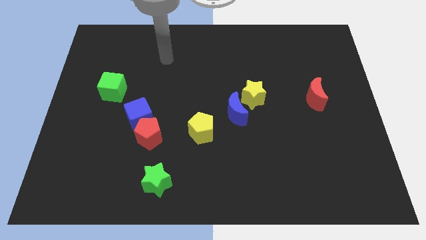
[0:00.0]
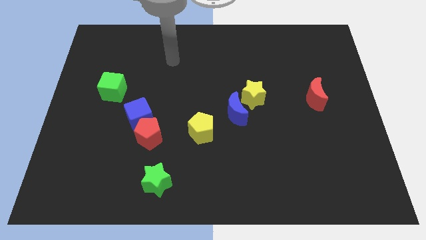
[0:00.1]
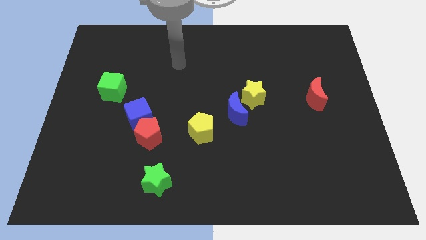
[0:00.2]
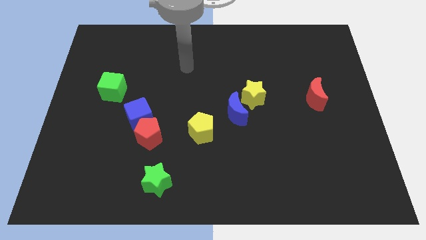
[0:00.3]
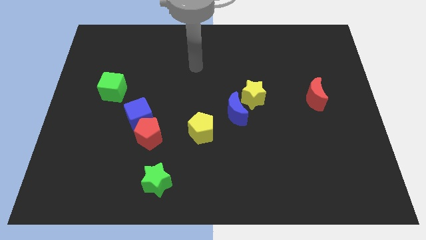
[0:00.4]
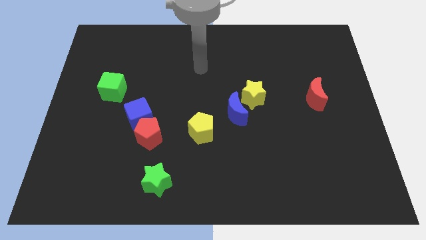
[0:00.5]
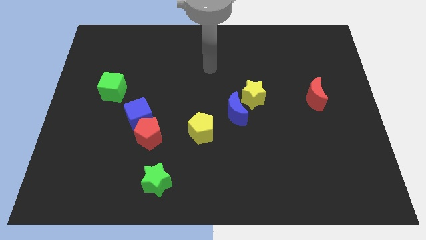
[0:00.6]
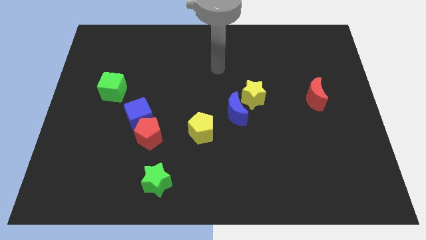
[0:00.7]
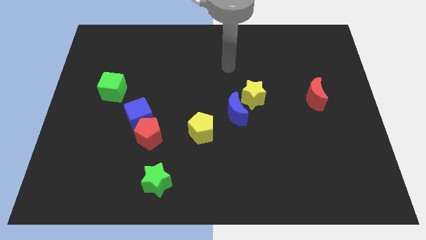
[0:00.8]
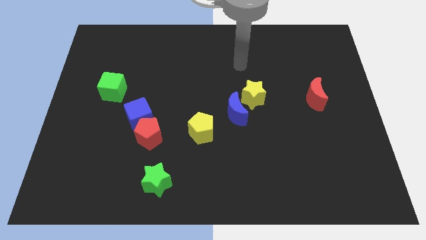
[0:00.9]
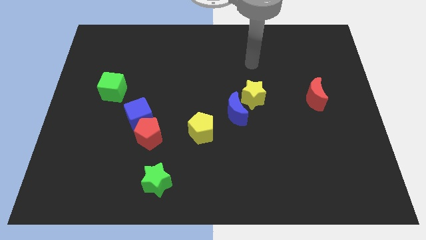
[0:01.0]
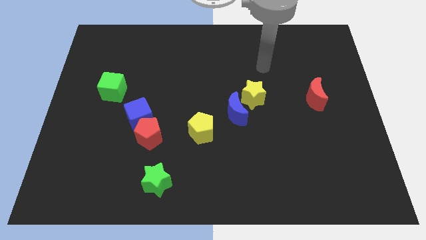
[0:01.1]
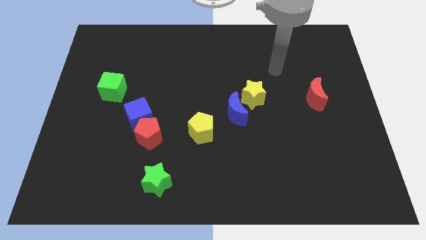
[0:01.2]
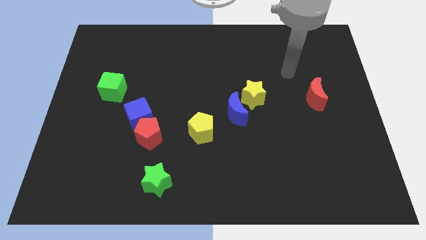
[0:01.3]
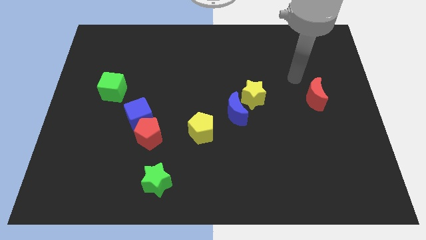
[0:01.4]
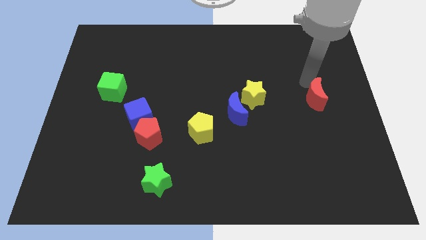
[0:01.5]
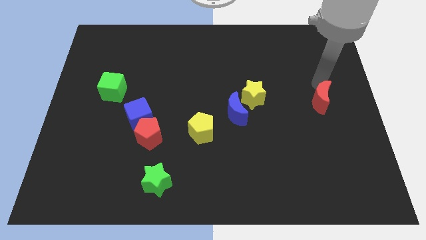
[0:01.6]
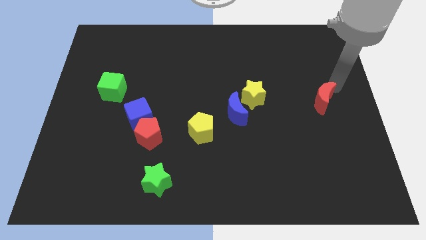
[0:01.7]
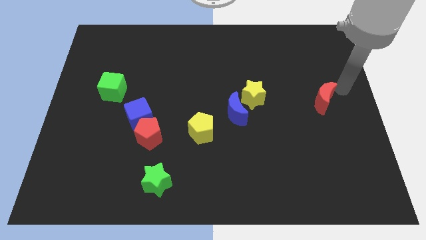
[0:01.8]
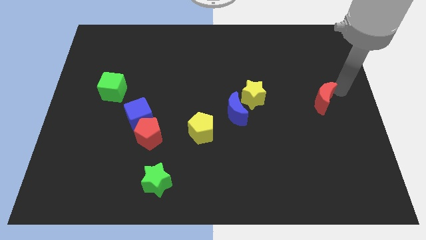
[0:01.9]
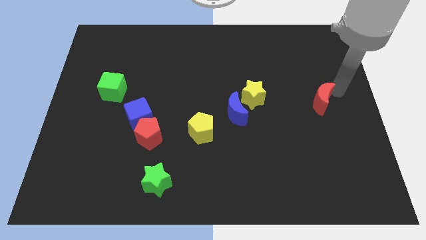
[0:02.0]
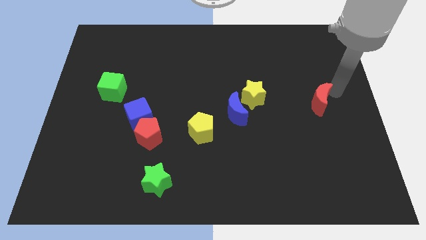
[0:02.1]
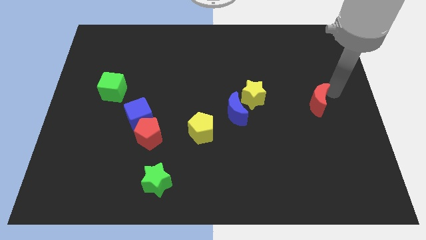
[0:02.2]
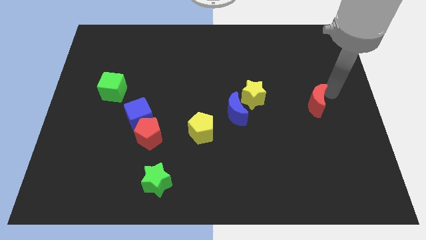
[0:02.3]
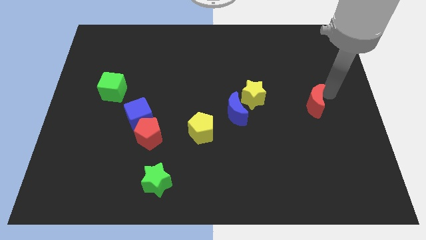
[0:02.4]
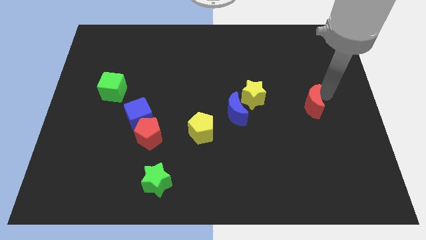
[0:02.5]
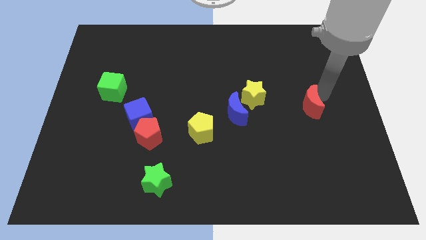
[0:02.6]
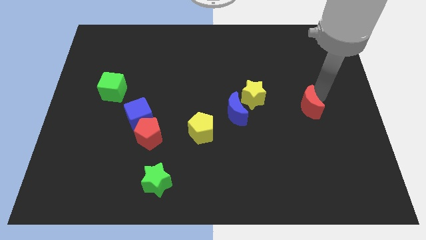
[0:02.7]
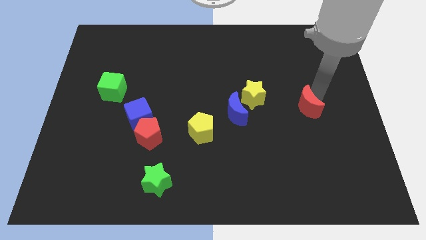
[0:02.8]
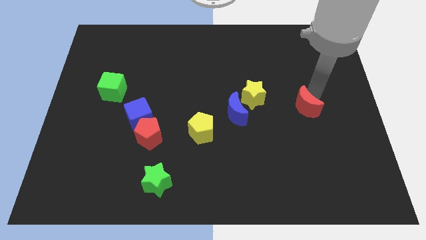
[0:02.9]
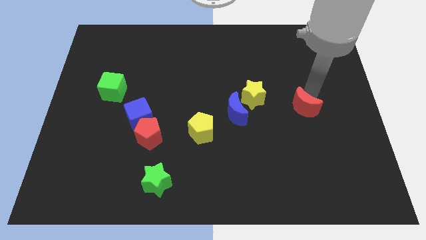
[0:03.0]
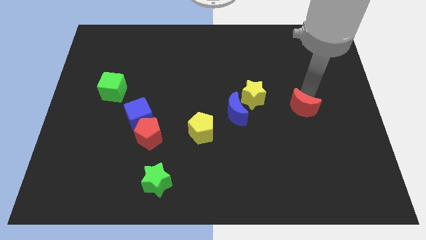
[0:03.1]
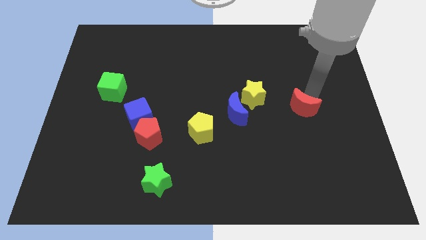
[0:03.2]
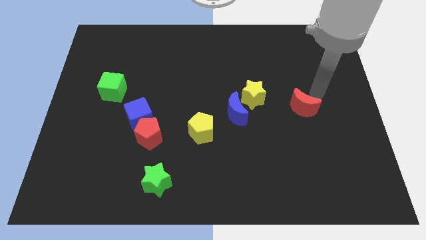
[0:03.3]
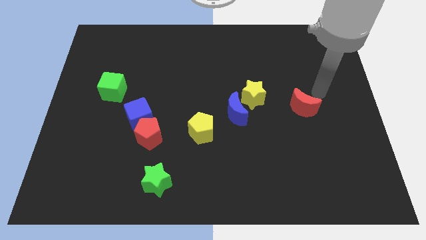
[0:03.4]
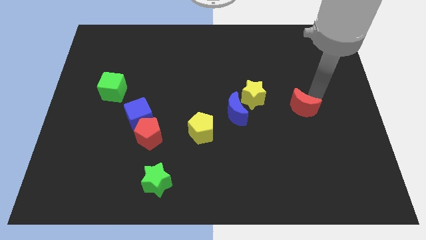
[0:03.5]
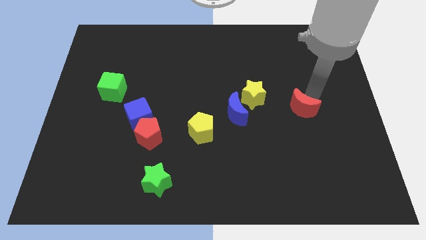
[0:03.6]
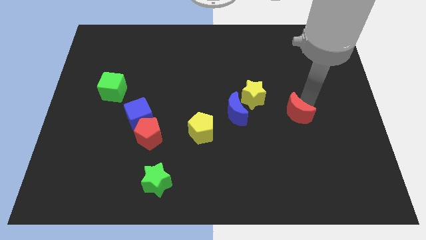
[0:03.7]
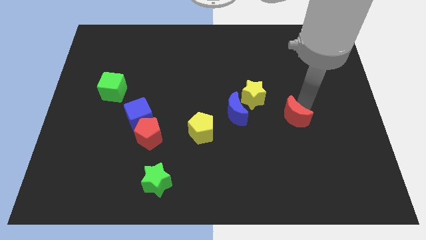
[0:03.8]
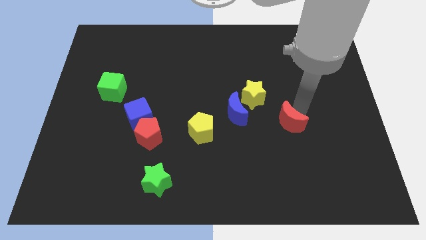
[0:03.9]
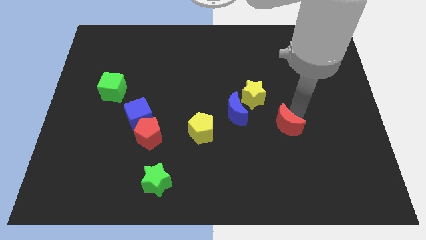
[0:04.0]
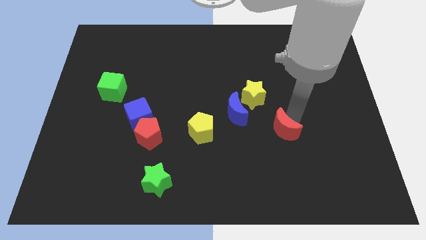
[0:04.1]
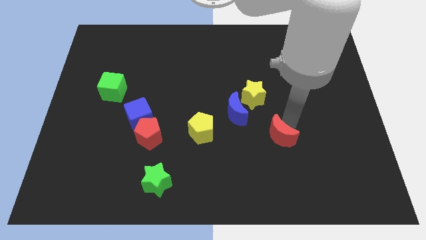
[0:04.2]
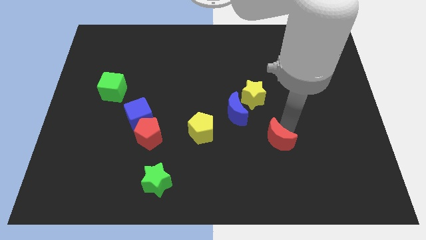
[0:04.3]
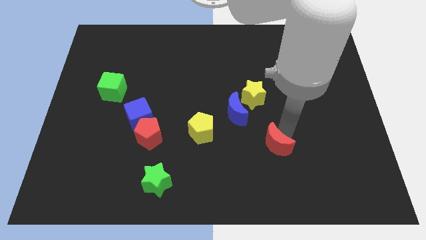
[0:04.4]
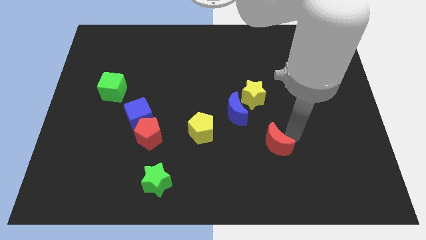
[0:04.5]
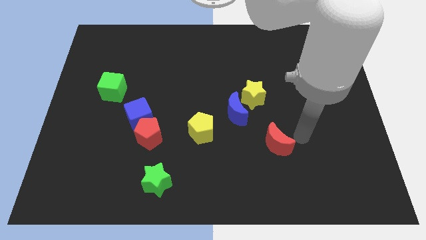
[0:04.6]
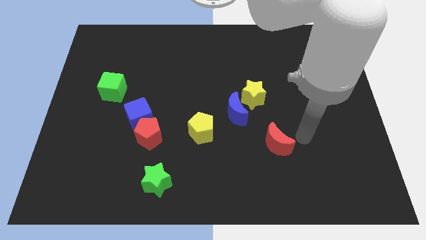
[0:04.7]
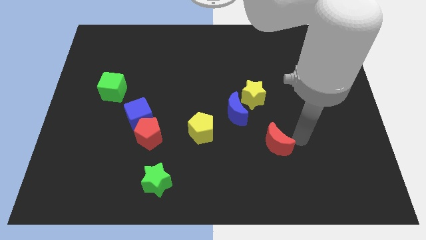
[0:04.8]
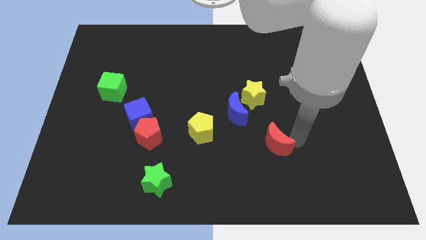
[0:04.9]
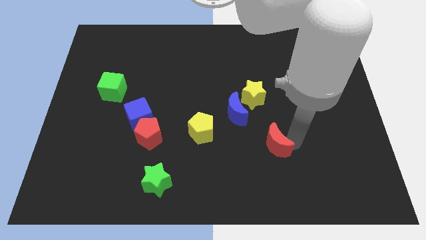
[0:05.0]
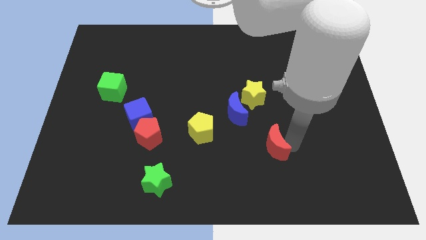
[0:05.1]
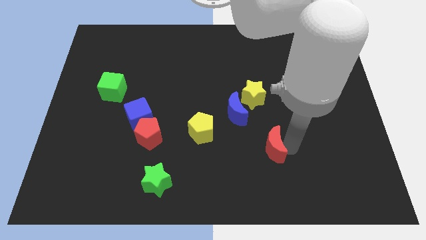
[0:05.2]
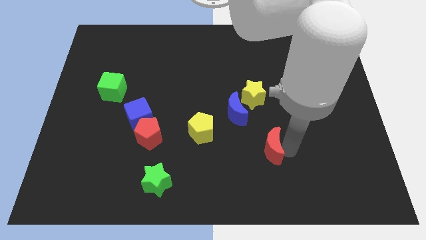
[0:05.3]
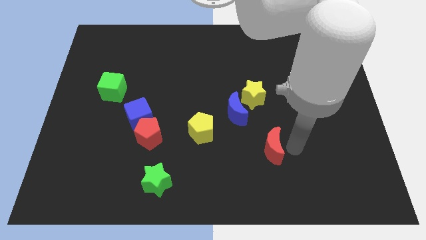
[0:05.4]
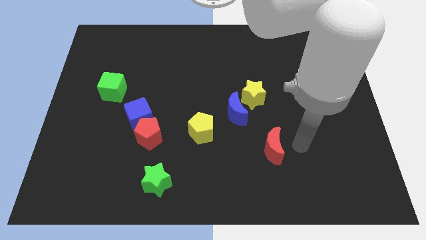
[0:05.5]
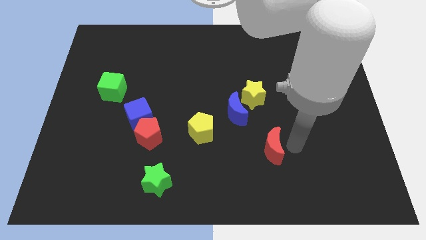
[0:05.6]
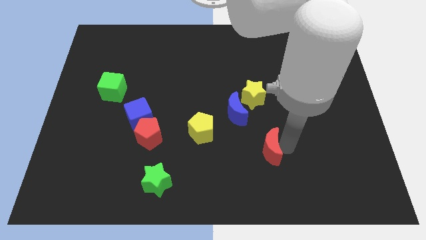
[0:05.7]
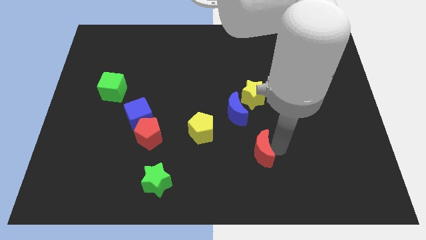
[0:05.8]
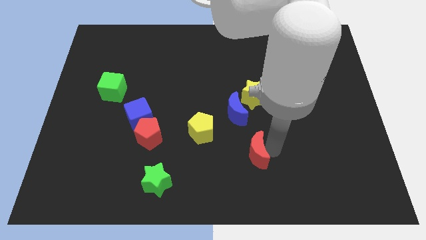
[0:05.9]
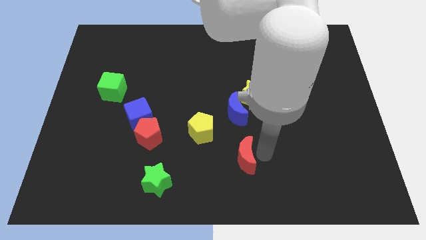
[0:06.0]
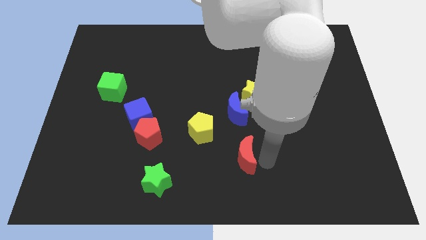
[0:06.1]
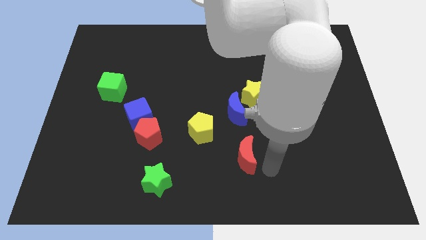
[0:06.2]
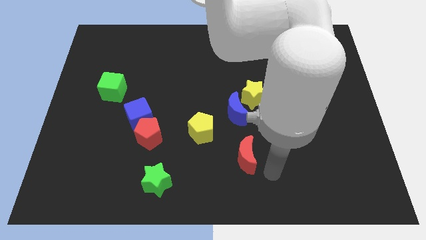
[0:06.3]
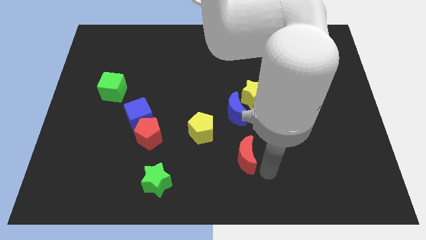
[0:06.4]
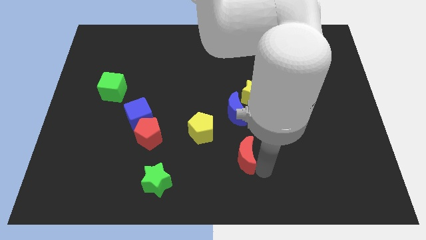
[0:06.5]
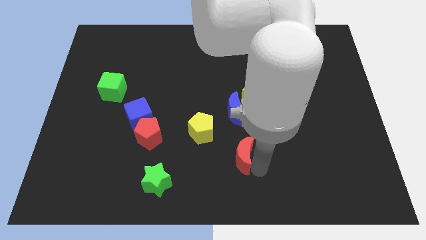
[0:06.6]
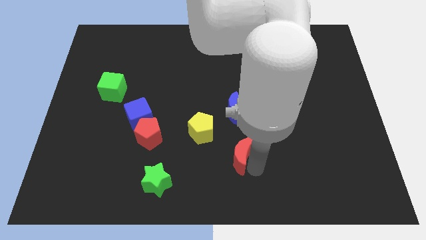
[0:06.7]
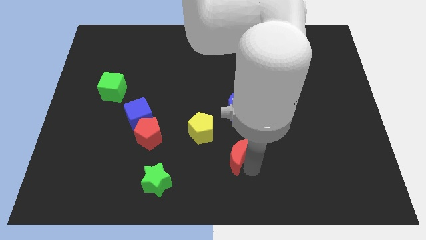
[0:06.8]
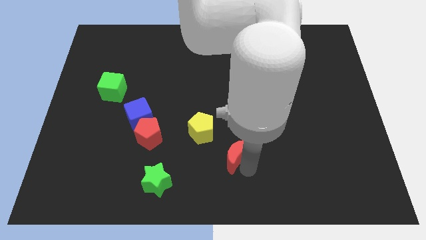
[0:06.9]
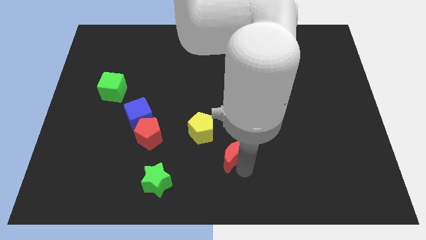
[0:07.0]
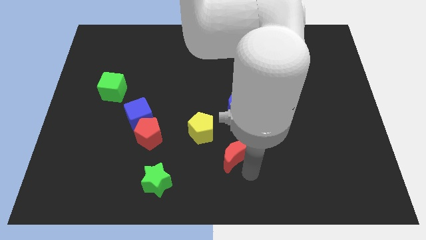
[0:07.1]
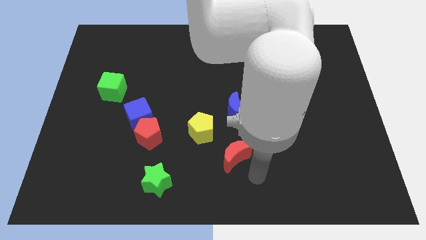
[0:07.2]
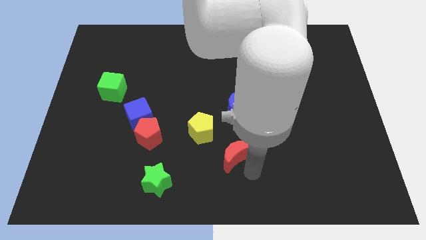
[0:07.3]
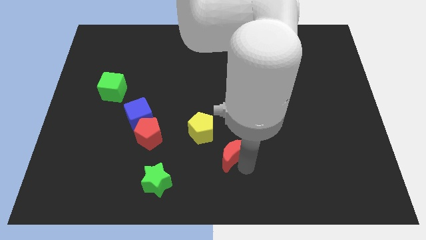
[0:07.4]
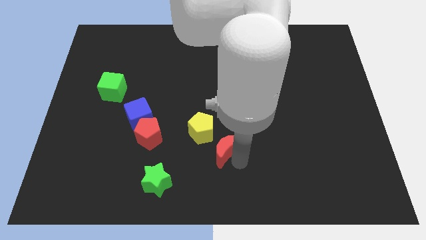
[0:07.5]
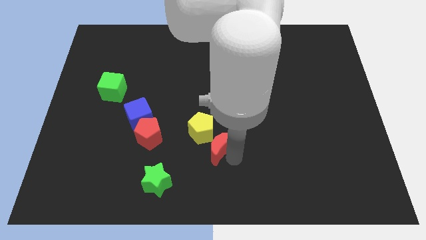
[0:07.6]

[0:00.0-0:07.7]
slide the red moon to the yellow pentagon
